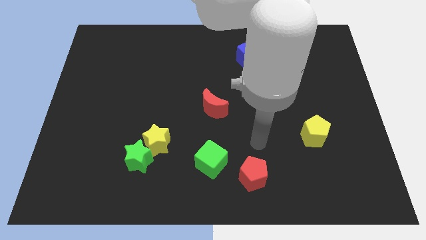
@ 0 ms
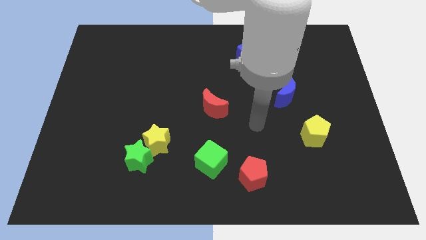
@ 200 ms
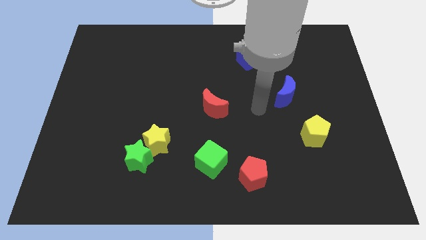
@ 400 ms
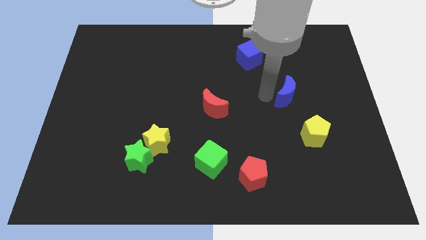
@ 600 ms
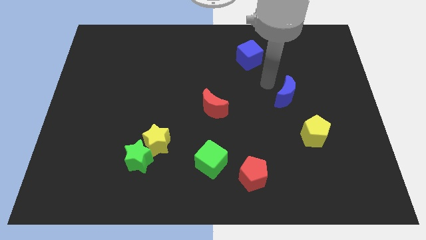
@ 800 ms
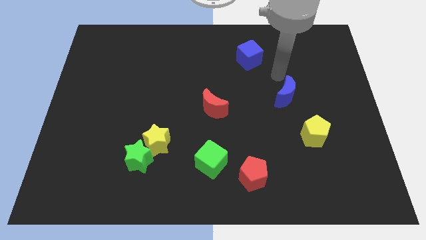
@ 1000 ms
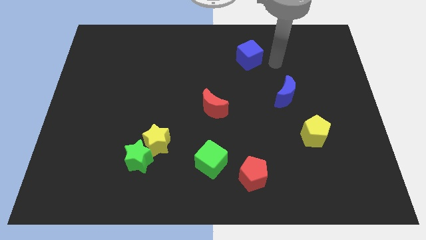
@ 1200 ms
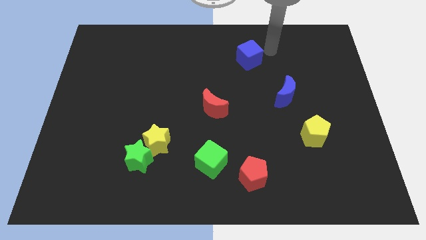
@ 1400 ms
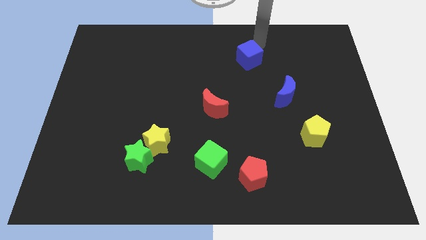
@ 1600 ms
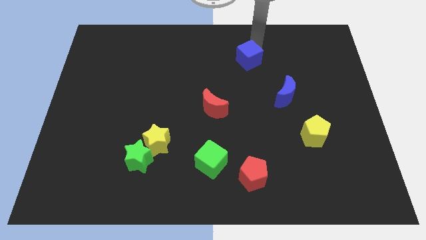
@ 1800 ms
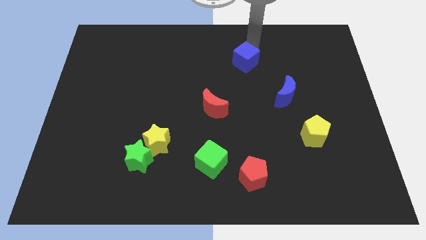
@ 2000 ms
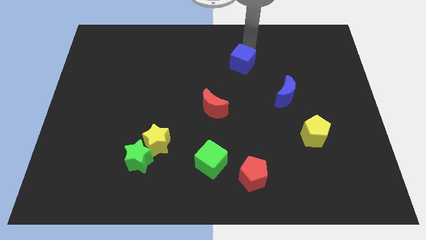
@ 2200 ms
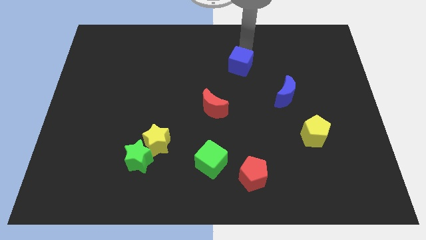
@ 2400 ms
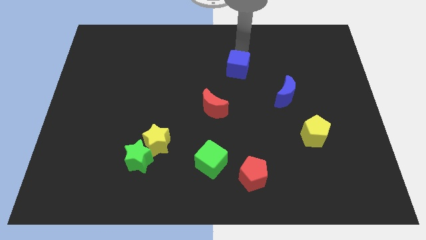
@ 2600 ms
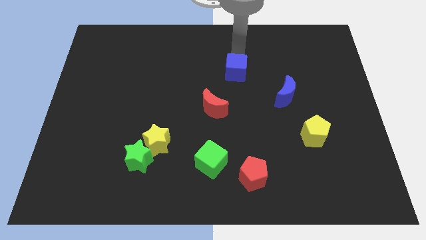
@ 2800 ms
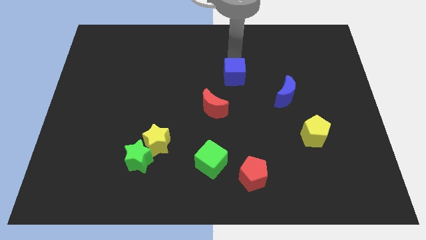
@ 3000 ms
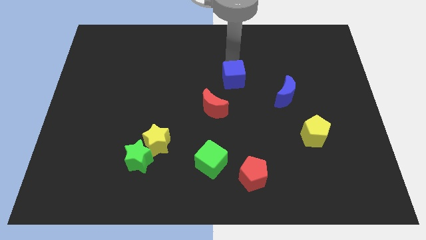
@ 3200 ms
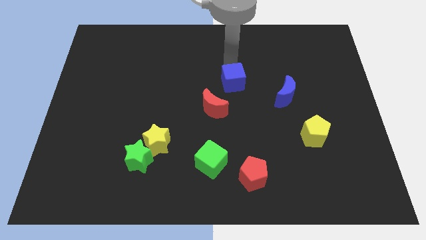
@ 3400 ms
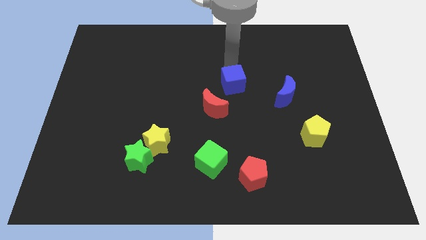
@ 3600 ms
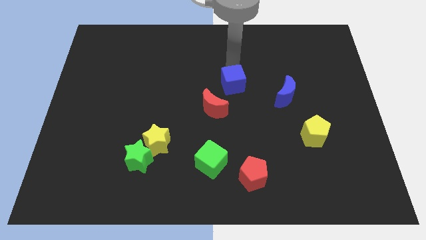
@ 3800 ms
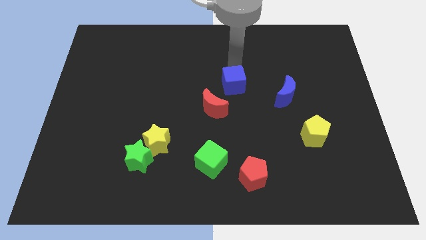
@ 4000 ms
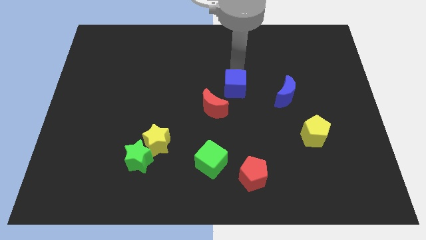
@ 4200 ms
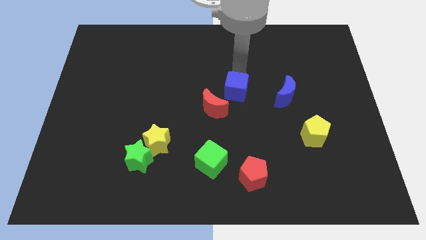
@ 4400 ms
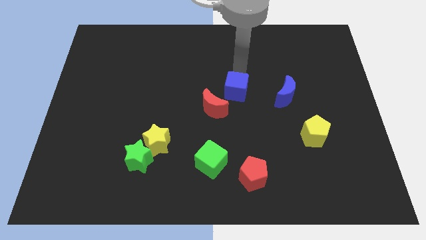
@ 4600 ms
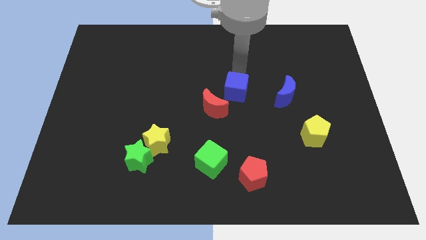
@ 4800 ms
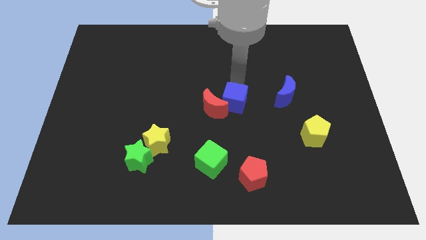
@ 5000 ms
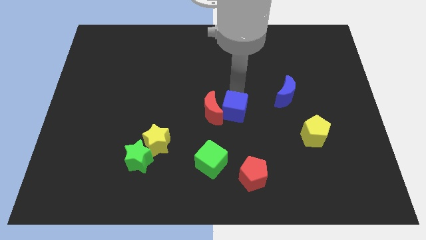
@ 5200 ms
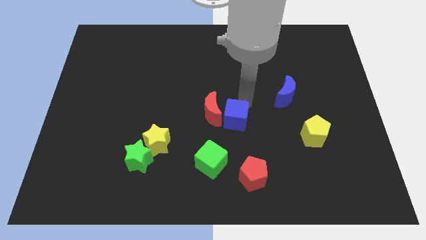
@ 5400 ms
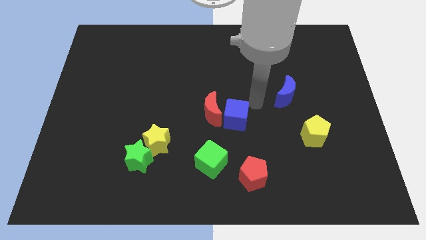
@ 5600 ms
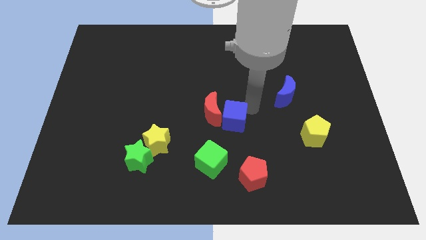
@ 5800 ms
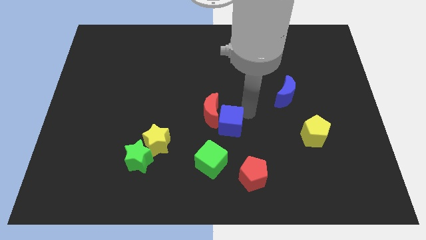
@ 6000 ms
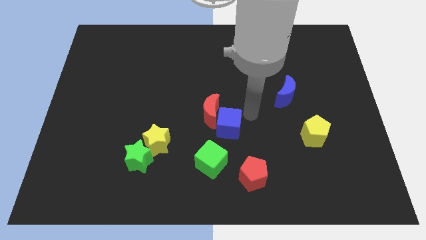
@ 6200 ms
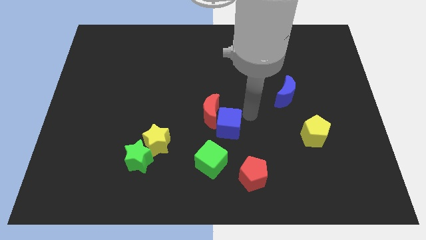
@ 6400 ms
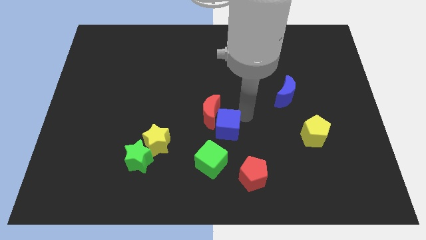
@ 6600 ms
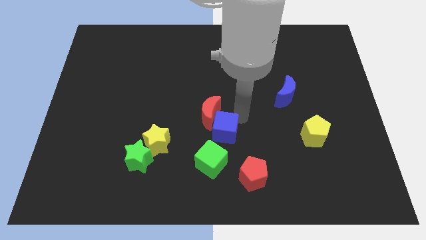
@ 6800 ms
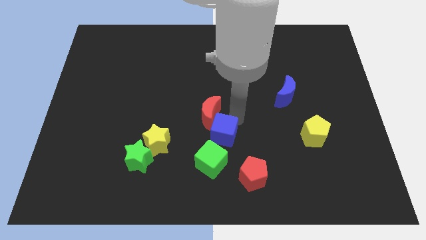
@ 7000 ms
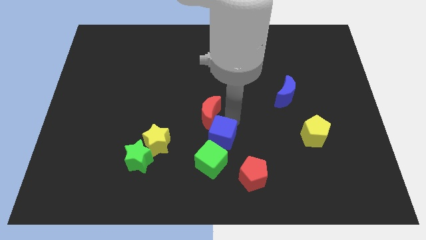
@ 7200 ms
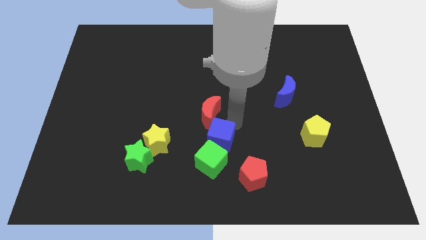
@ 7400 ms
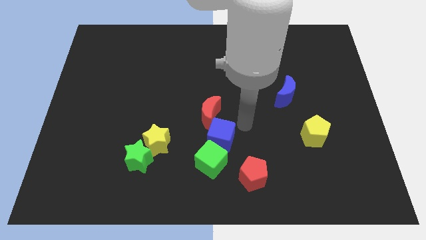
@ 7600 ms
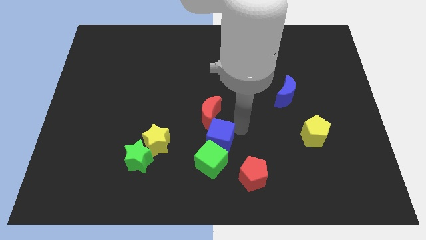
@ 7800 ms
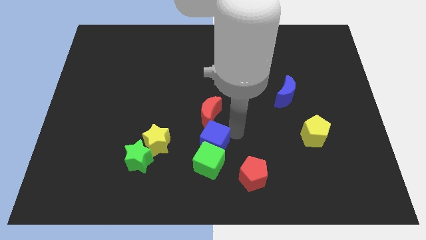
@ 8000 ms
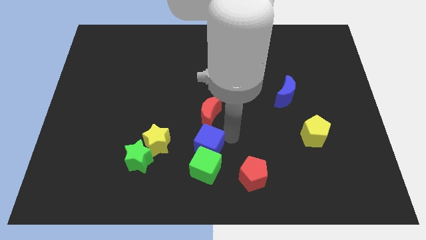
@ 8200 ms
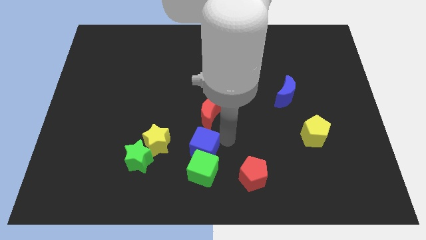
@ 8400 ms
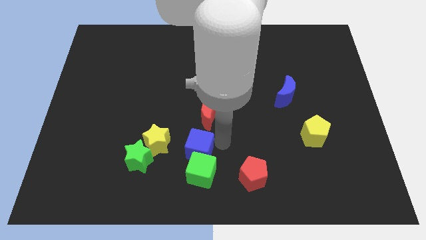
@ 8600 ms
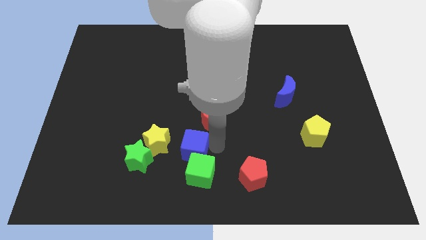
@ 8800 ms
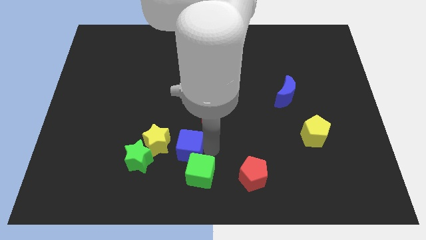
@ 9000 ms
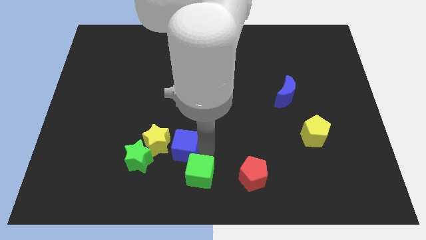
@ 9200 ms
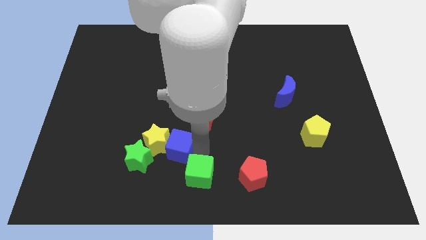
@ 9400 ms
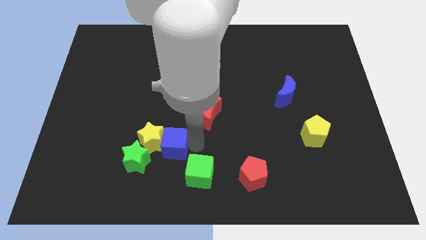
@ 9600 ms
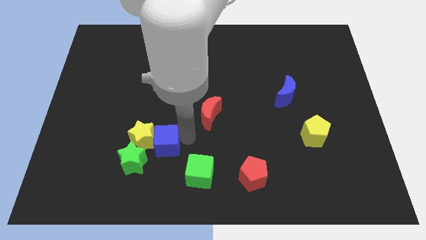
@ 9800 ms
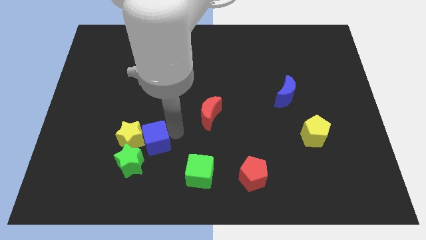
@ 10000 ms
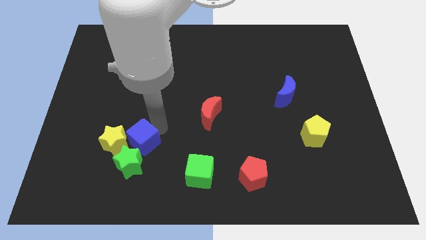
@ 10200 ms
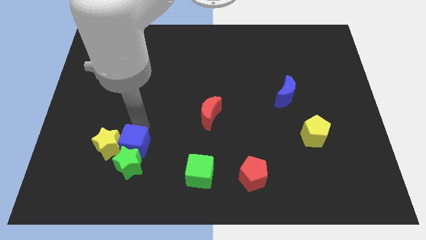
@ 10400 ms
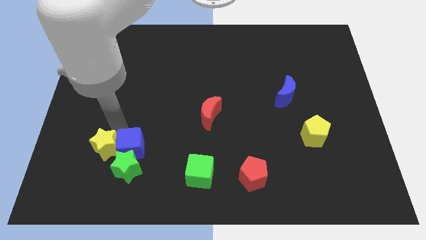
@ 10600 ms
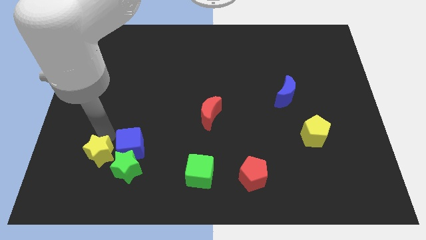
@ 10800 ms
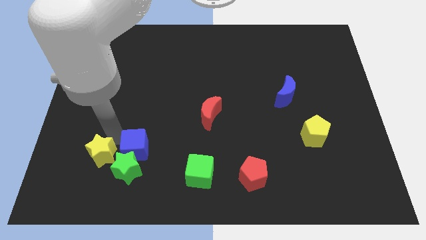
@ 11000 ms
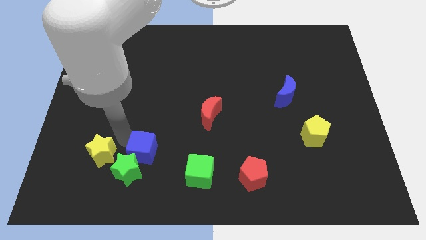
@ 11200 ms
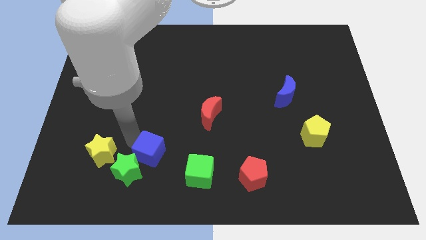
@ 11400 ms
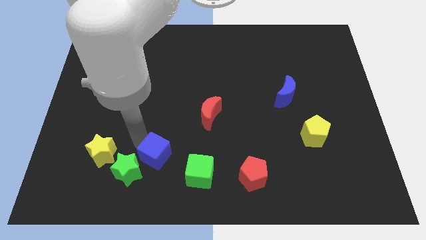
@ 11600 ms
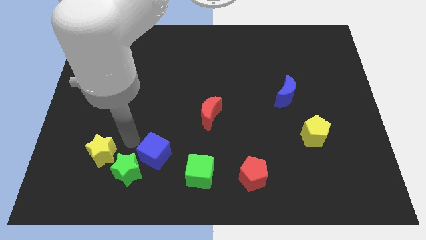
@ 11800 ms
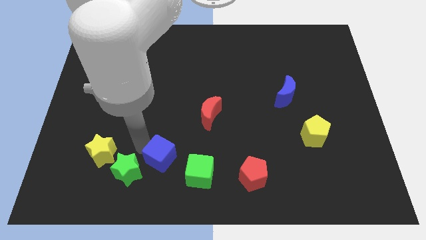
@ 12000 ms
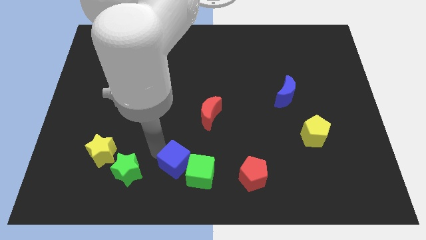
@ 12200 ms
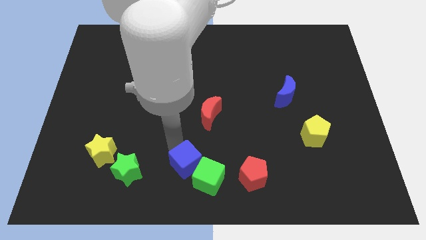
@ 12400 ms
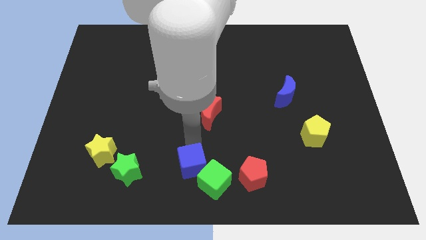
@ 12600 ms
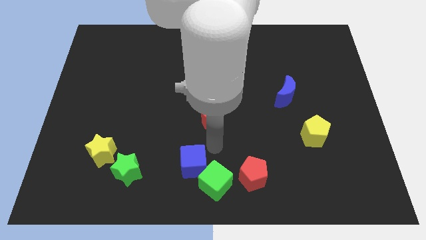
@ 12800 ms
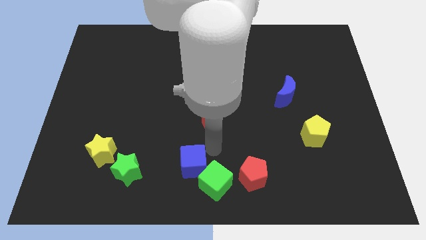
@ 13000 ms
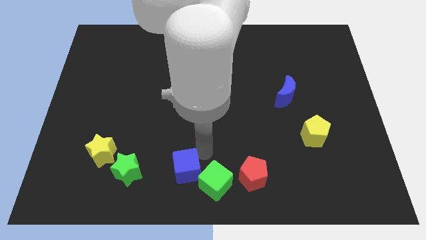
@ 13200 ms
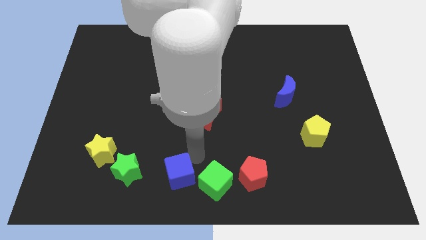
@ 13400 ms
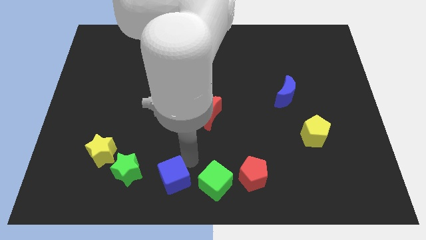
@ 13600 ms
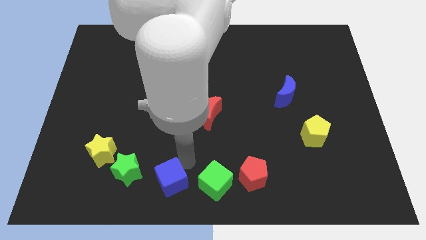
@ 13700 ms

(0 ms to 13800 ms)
put the blue cube diagonally down and to the right of the green star
